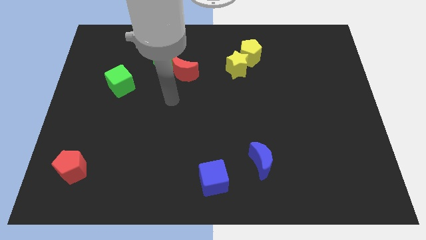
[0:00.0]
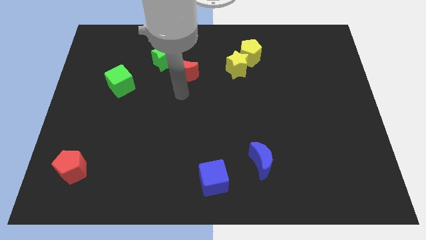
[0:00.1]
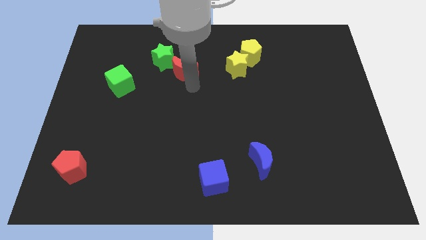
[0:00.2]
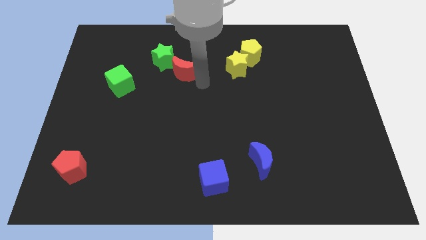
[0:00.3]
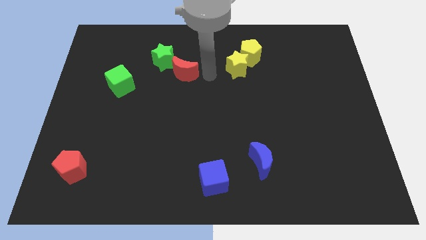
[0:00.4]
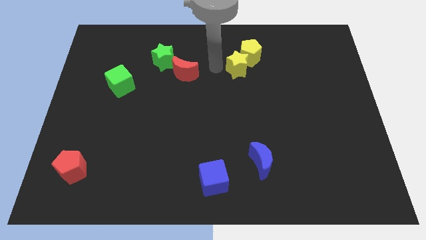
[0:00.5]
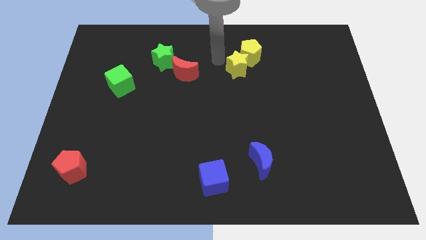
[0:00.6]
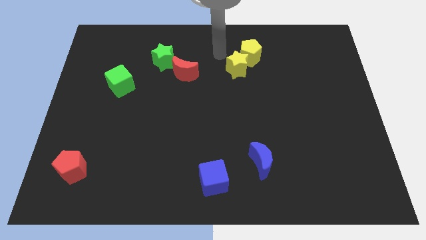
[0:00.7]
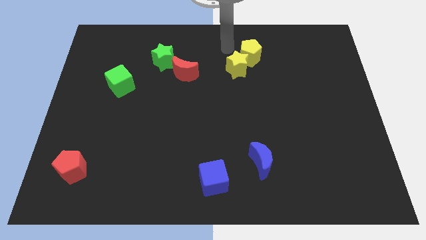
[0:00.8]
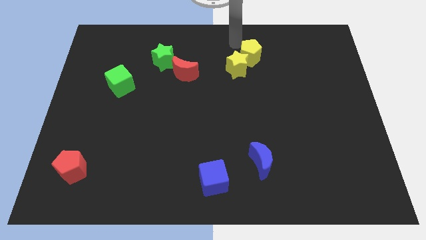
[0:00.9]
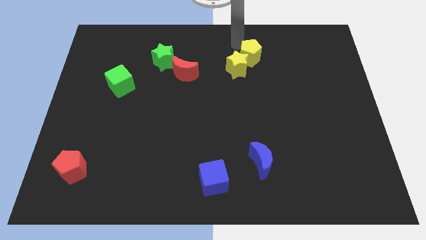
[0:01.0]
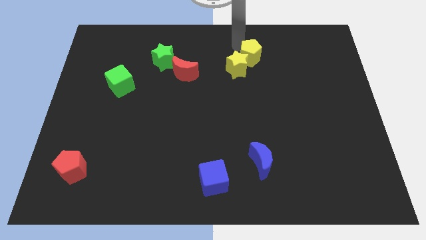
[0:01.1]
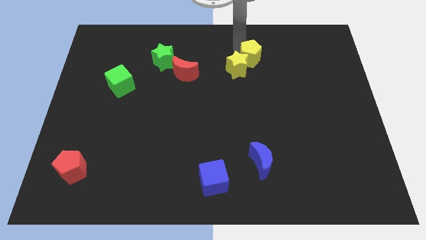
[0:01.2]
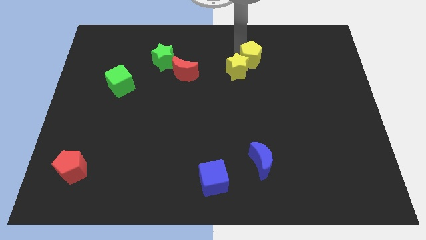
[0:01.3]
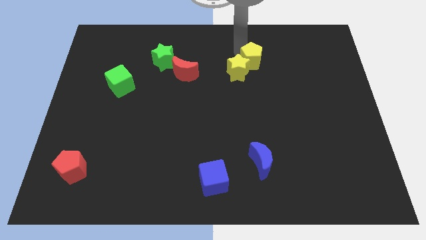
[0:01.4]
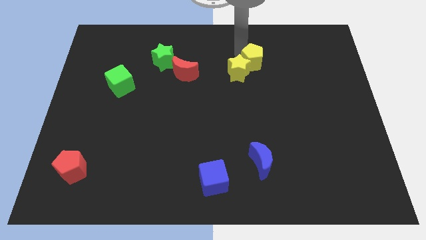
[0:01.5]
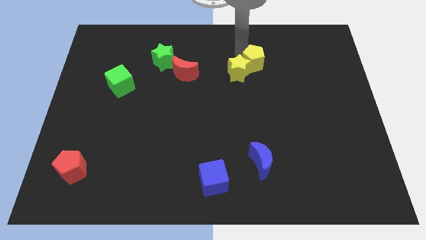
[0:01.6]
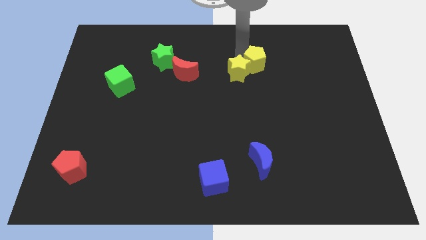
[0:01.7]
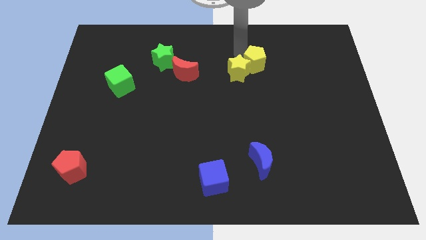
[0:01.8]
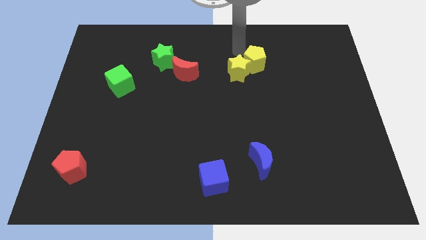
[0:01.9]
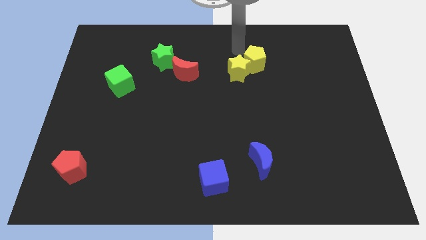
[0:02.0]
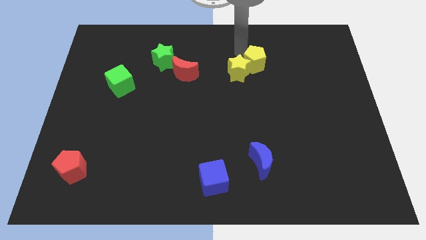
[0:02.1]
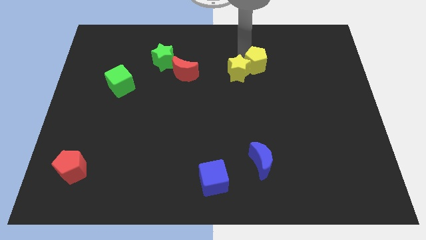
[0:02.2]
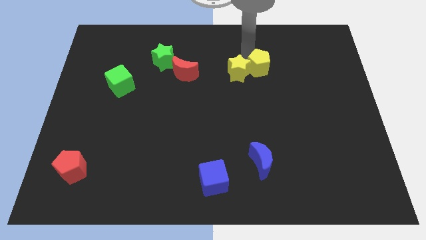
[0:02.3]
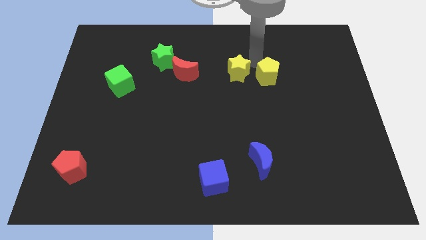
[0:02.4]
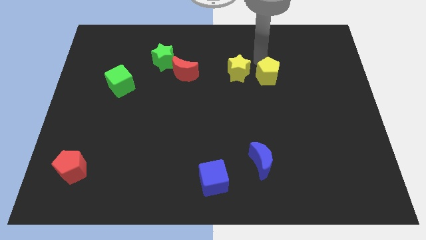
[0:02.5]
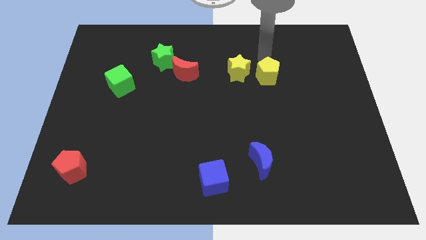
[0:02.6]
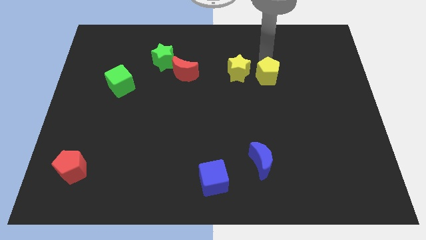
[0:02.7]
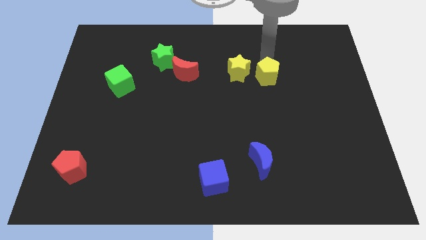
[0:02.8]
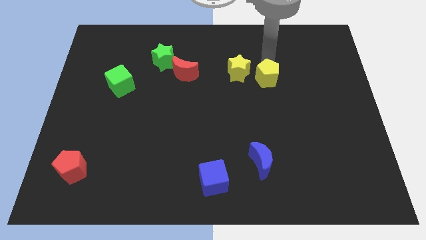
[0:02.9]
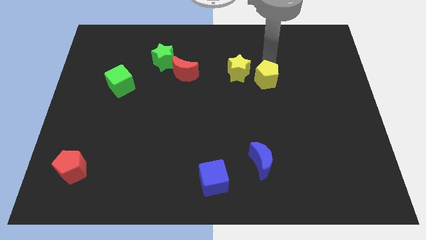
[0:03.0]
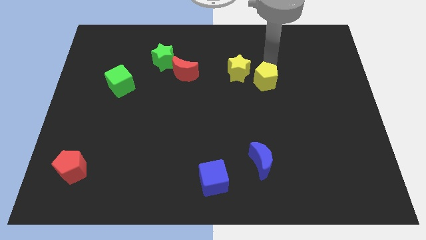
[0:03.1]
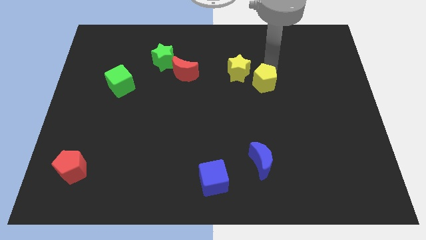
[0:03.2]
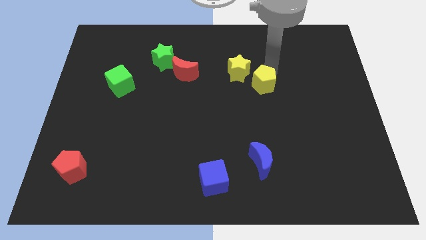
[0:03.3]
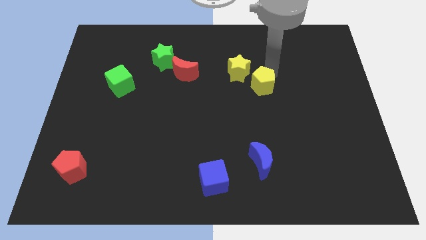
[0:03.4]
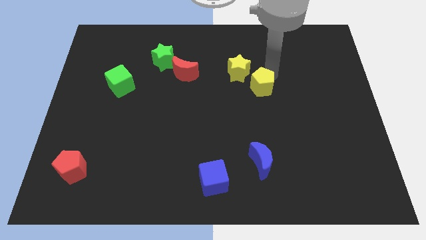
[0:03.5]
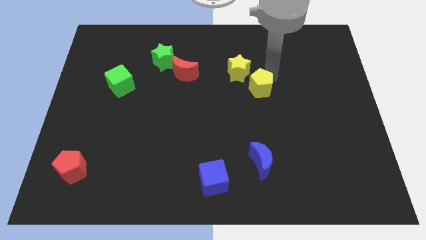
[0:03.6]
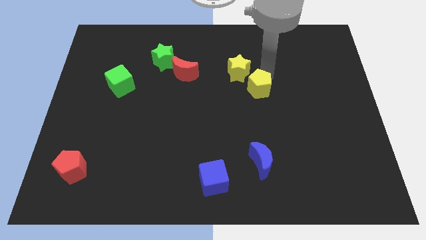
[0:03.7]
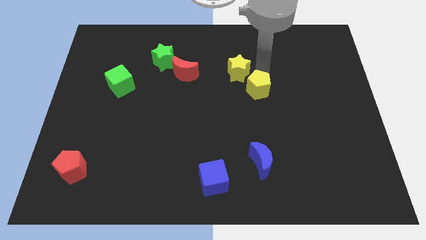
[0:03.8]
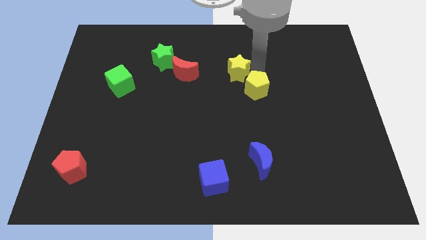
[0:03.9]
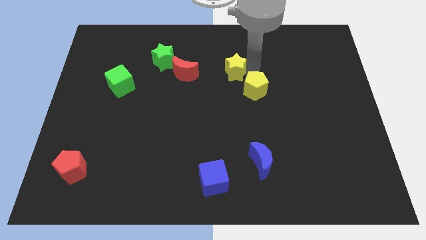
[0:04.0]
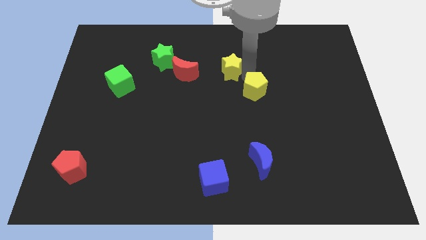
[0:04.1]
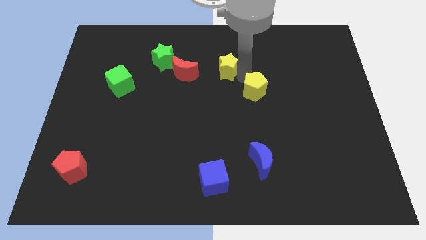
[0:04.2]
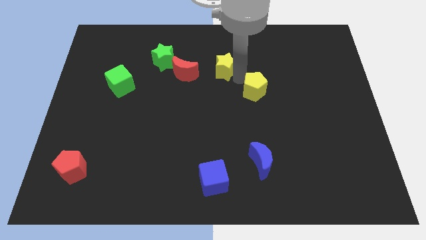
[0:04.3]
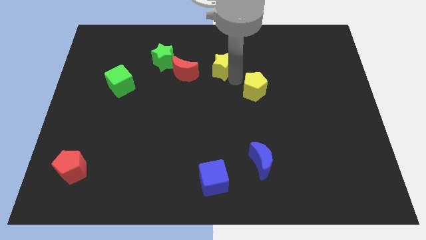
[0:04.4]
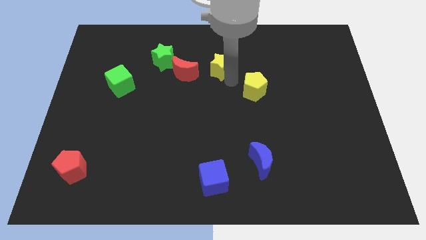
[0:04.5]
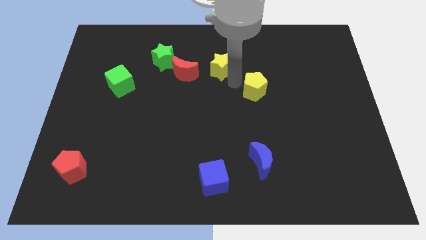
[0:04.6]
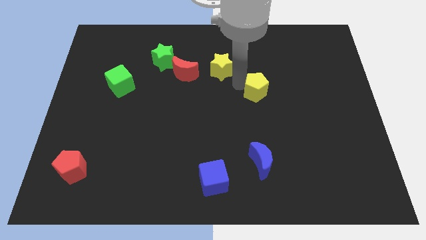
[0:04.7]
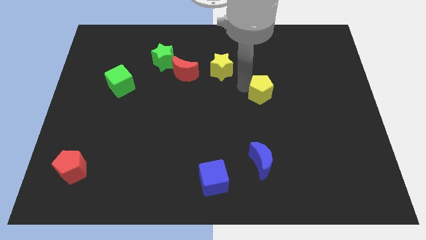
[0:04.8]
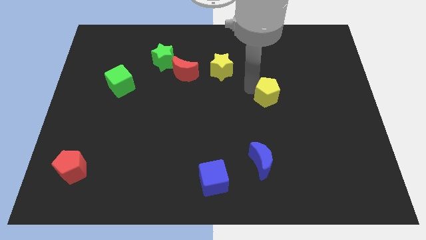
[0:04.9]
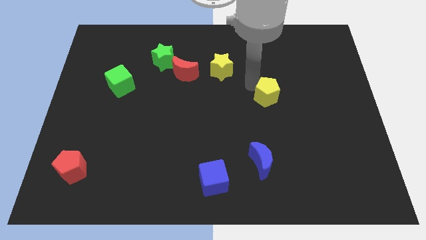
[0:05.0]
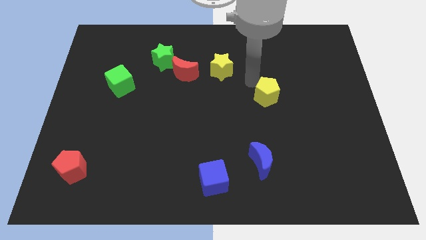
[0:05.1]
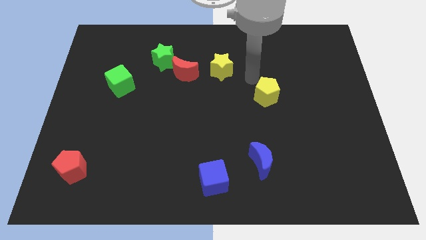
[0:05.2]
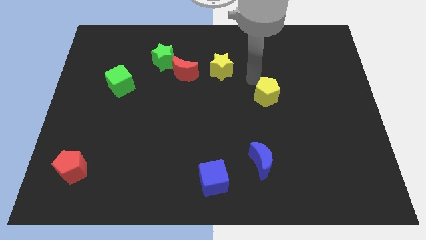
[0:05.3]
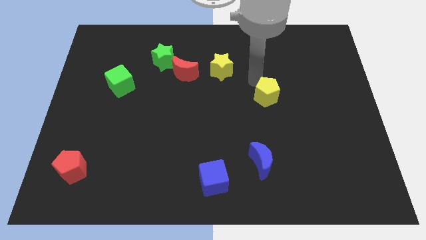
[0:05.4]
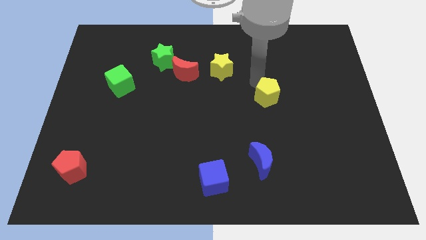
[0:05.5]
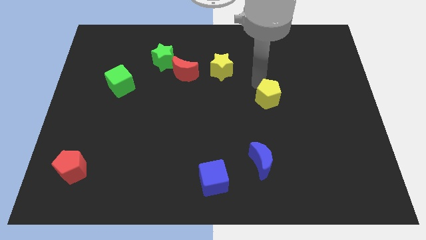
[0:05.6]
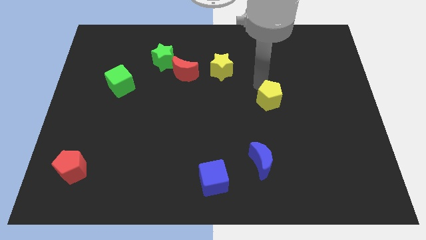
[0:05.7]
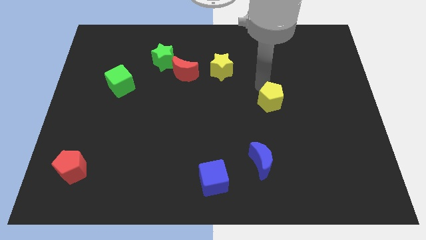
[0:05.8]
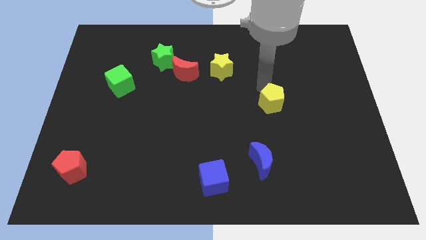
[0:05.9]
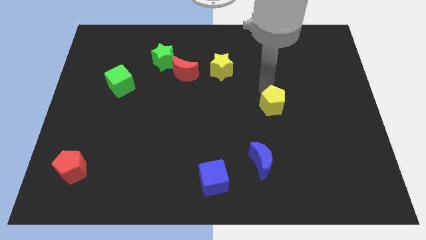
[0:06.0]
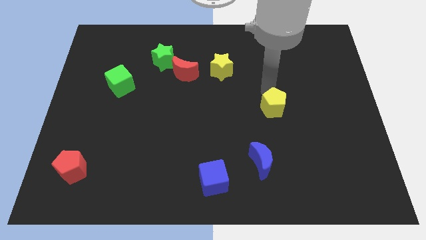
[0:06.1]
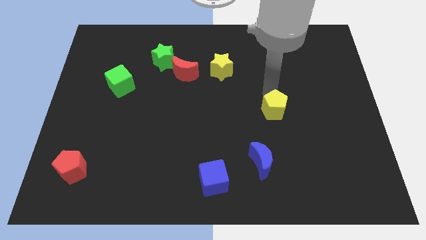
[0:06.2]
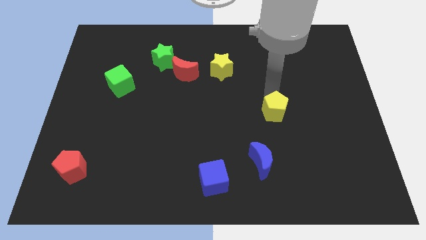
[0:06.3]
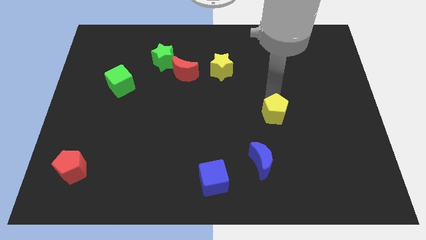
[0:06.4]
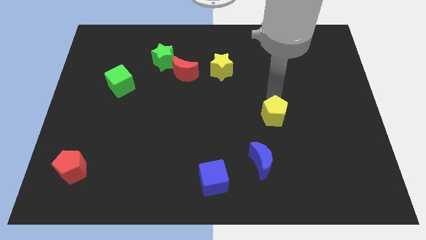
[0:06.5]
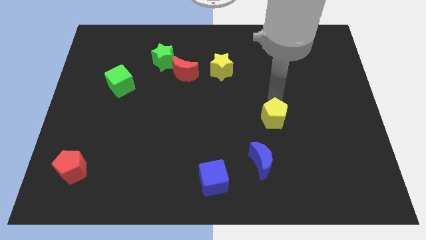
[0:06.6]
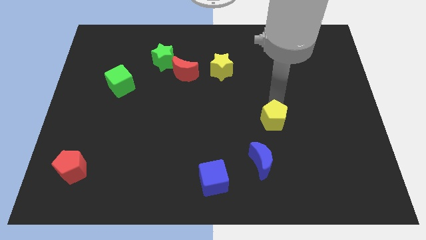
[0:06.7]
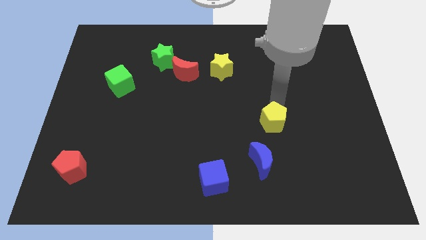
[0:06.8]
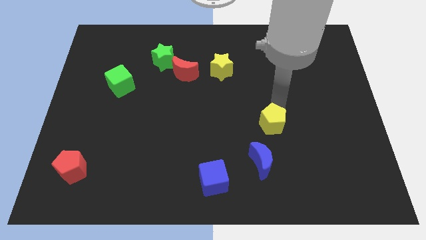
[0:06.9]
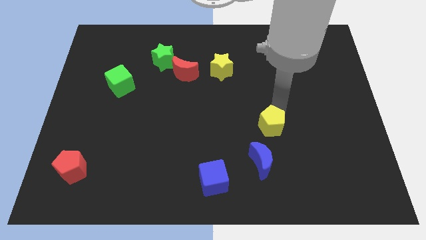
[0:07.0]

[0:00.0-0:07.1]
slide the yellow pentagon to the top right side of the blue moon
